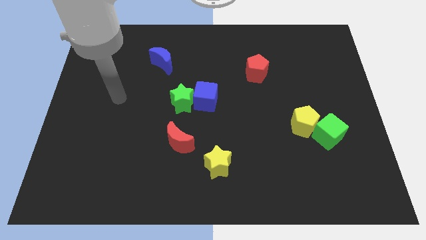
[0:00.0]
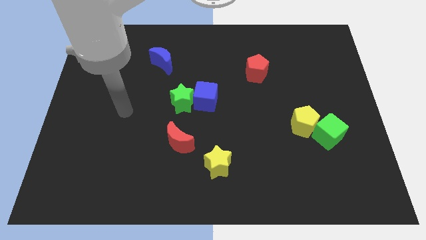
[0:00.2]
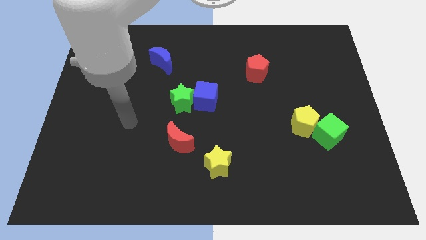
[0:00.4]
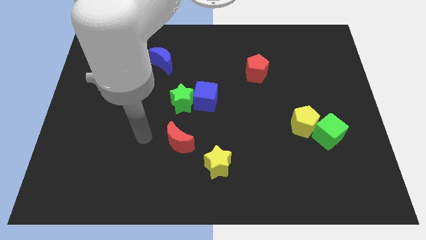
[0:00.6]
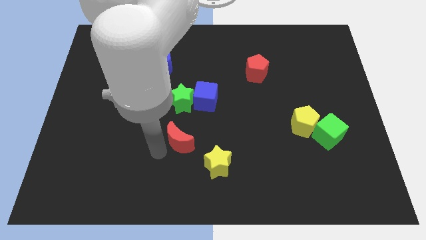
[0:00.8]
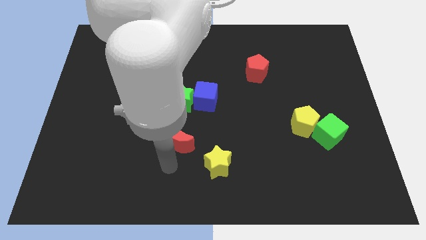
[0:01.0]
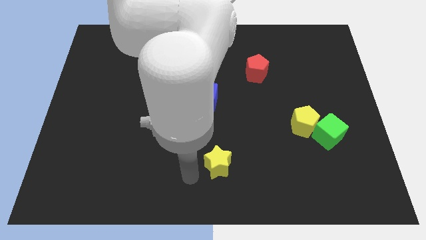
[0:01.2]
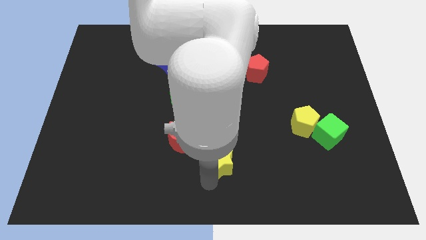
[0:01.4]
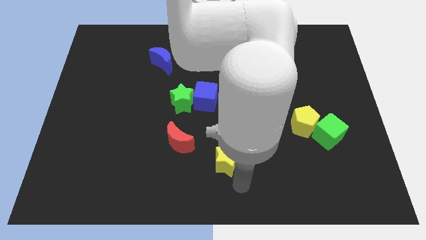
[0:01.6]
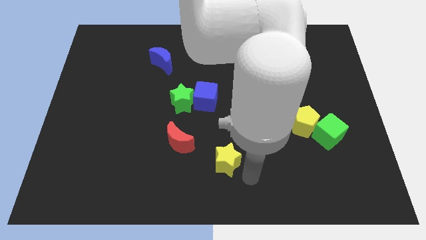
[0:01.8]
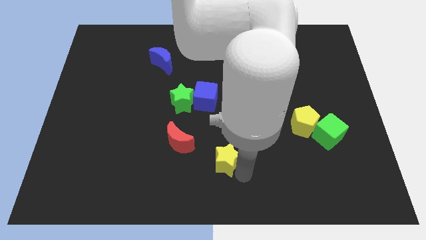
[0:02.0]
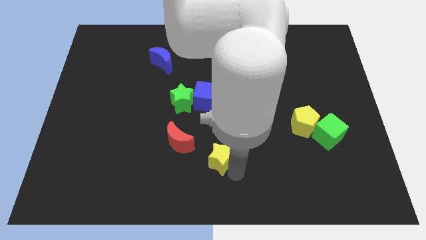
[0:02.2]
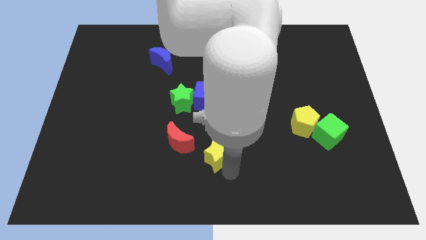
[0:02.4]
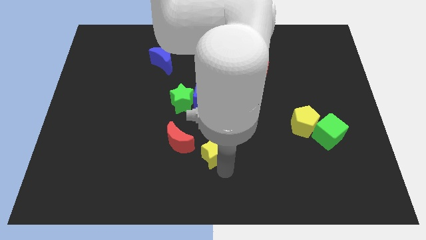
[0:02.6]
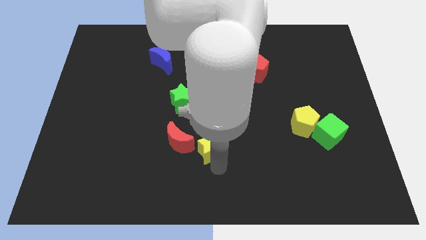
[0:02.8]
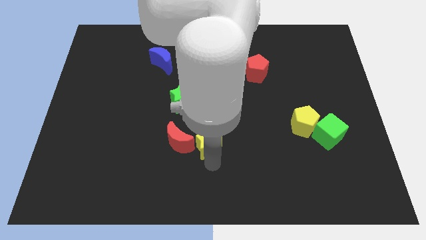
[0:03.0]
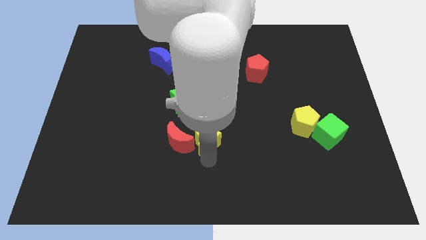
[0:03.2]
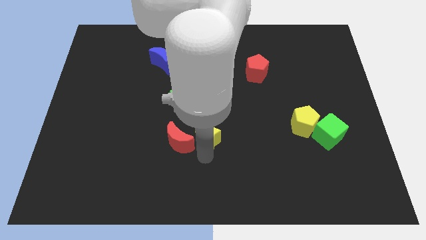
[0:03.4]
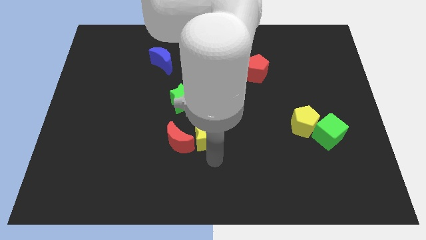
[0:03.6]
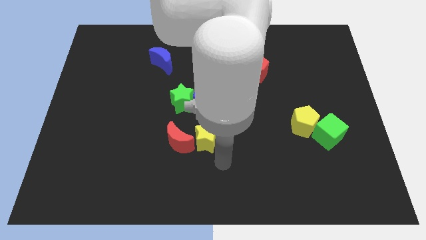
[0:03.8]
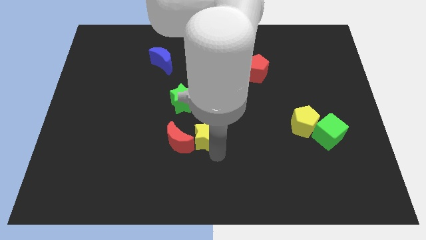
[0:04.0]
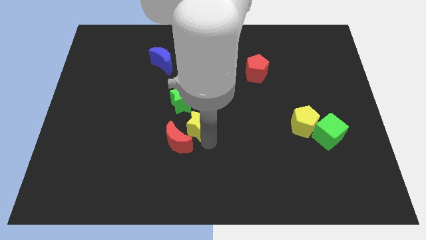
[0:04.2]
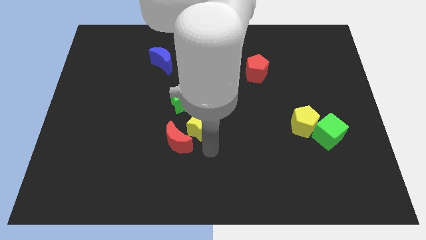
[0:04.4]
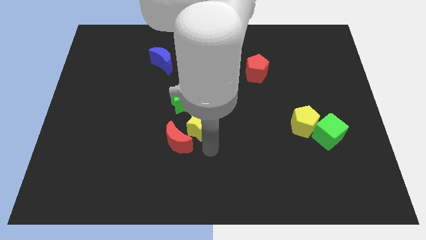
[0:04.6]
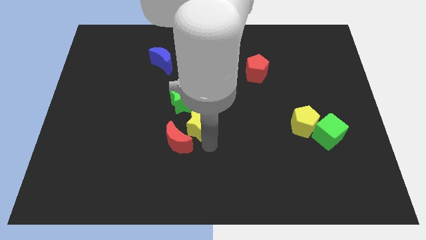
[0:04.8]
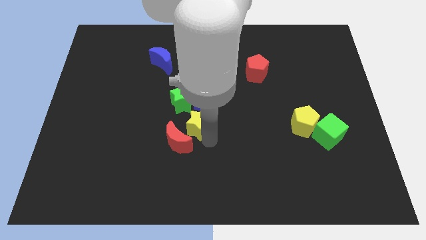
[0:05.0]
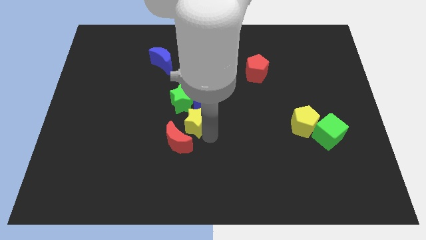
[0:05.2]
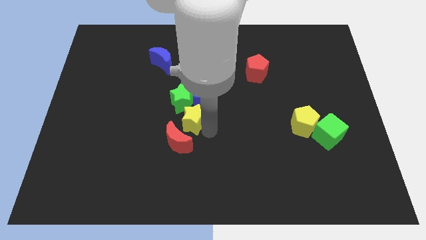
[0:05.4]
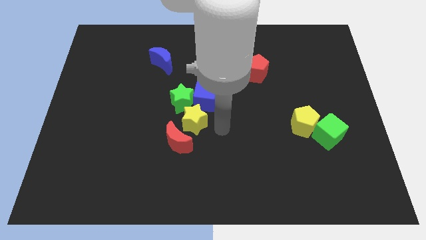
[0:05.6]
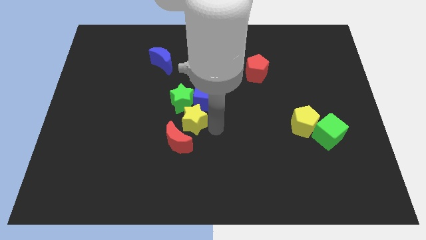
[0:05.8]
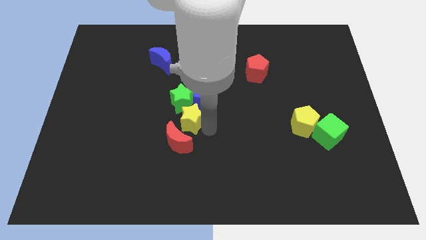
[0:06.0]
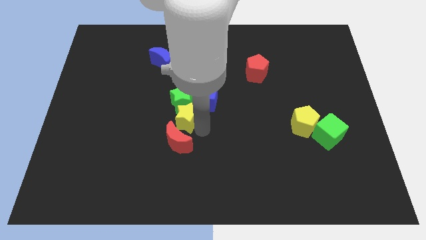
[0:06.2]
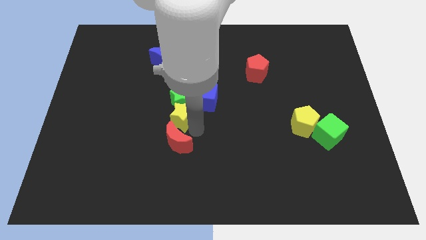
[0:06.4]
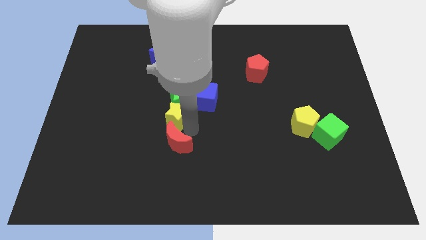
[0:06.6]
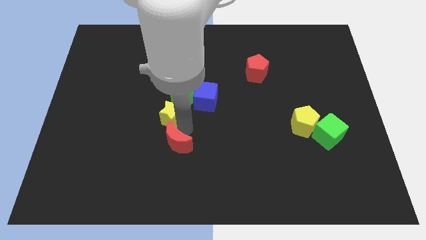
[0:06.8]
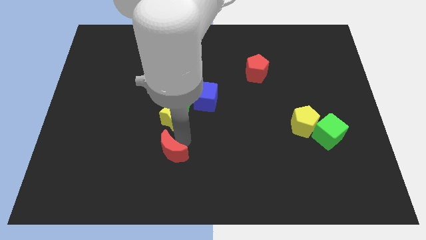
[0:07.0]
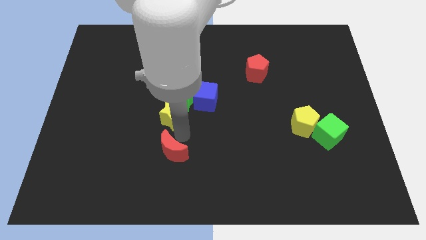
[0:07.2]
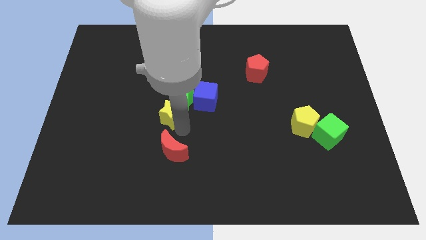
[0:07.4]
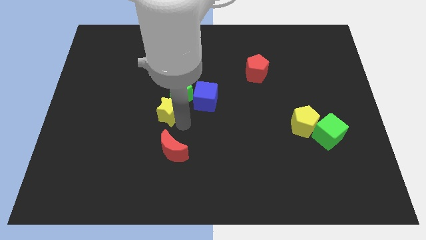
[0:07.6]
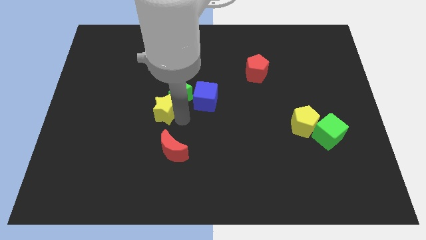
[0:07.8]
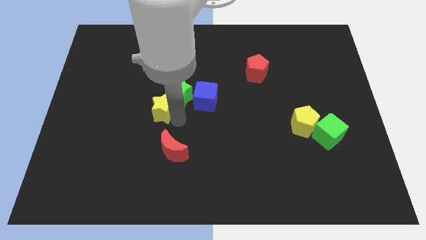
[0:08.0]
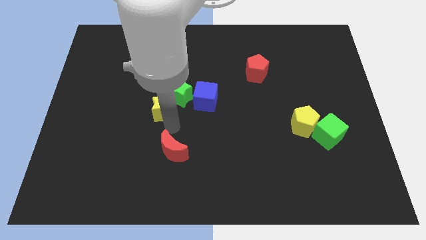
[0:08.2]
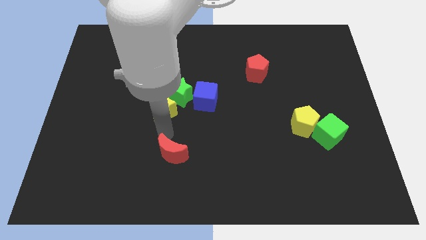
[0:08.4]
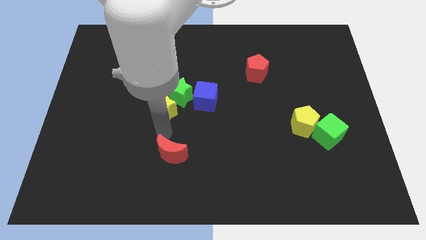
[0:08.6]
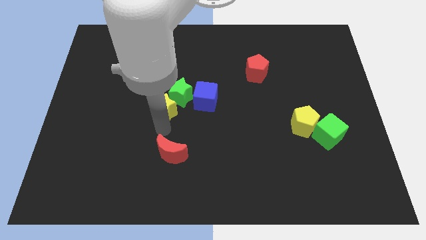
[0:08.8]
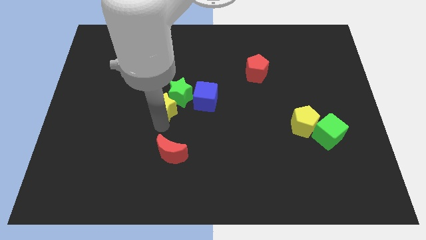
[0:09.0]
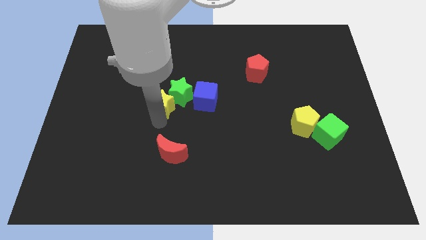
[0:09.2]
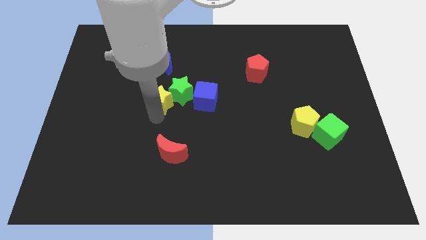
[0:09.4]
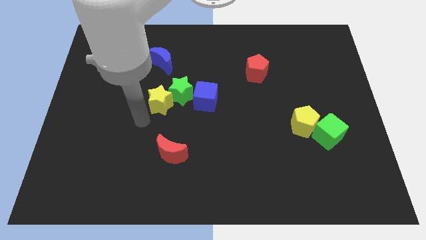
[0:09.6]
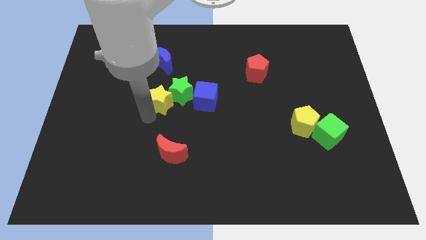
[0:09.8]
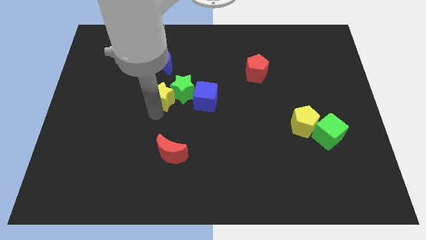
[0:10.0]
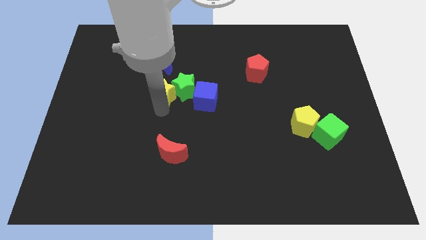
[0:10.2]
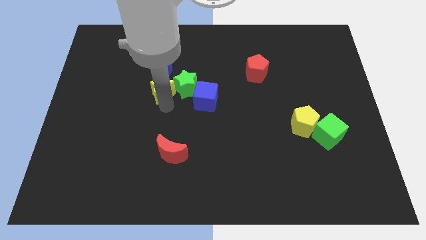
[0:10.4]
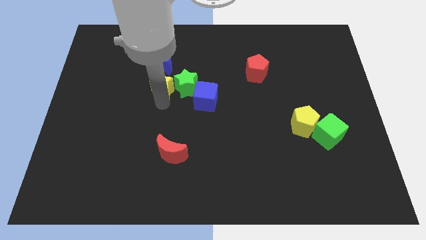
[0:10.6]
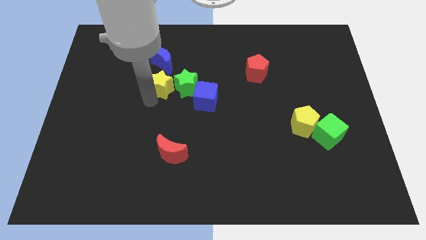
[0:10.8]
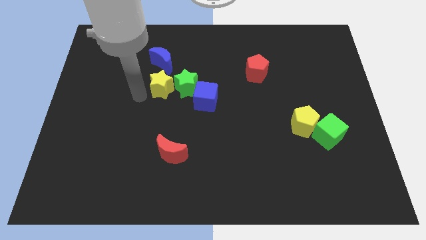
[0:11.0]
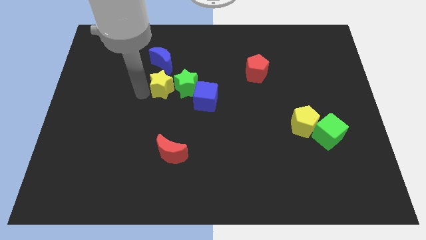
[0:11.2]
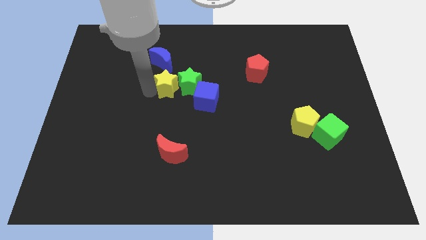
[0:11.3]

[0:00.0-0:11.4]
slide the yellow star to the top left of the blue cube

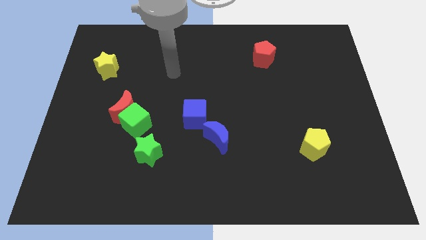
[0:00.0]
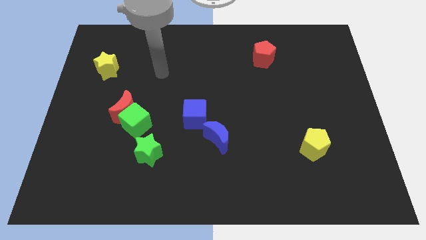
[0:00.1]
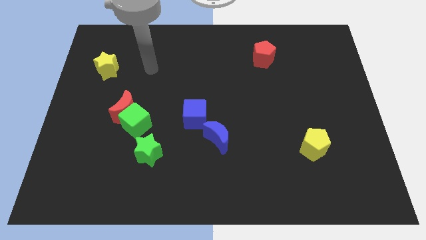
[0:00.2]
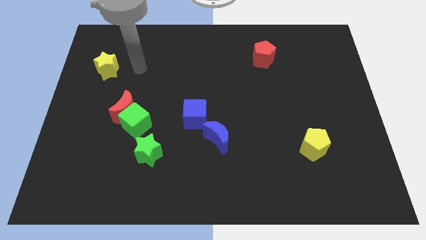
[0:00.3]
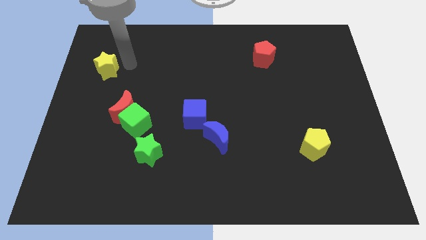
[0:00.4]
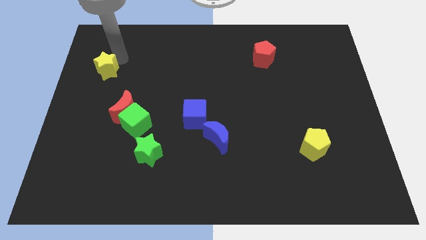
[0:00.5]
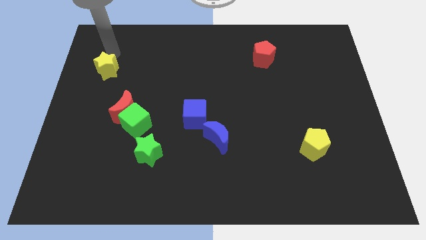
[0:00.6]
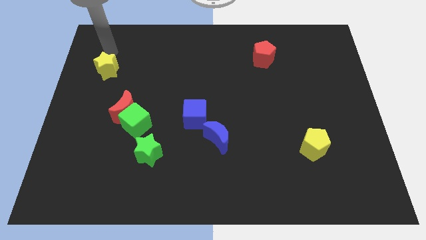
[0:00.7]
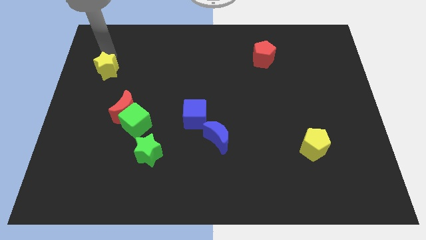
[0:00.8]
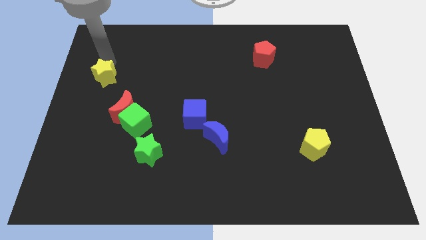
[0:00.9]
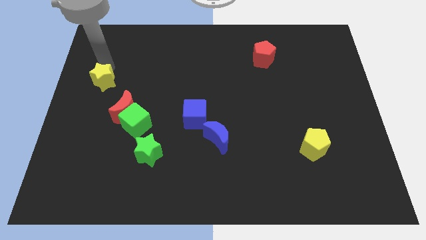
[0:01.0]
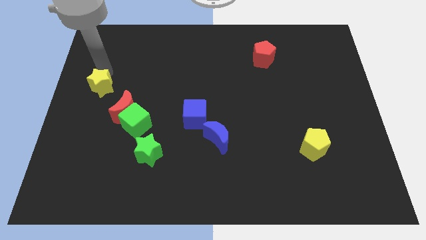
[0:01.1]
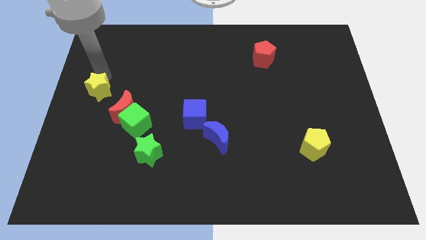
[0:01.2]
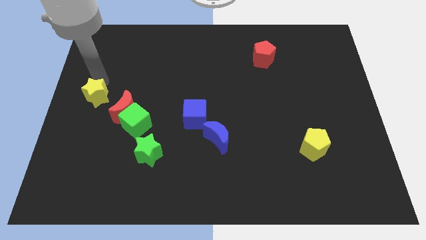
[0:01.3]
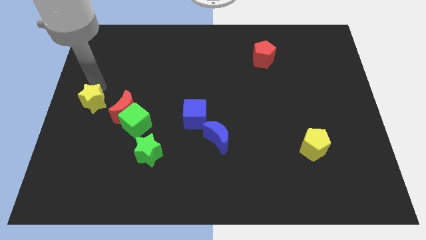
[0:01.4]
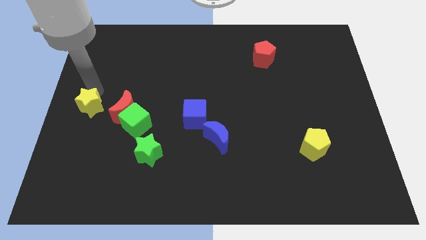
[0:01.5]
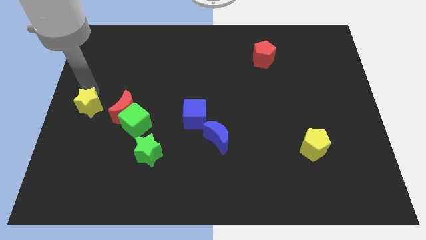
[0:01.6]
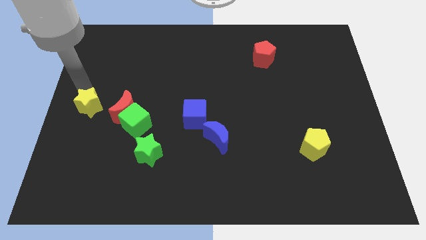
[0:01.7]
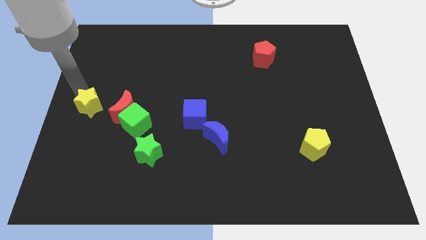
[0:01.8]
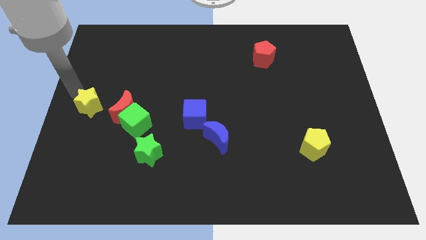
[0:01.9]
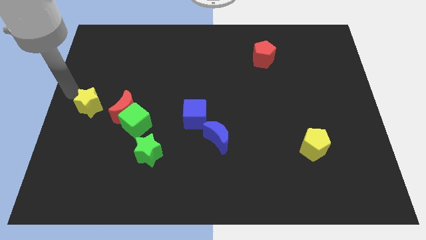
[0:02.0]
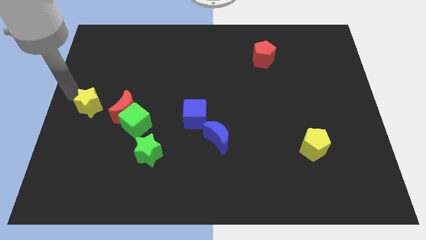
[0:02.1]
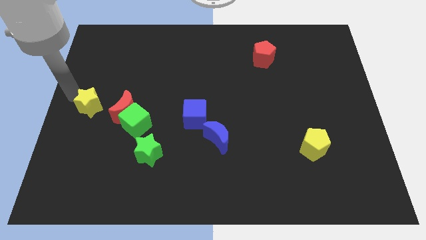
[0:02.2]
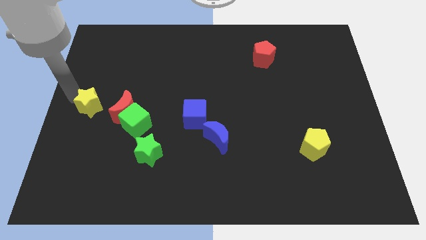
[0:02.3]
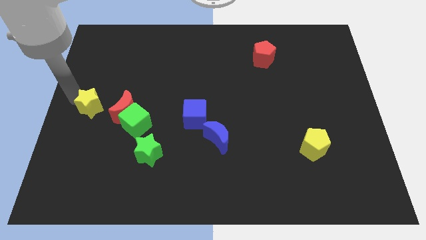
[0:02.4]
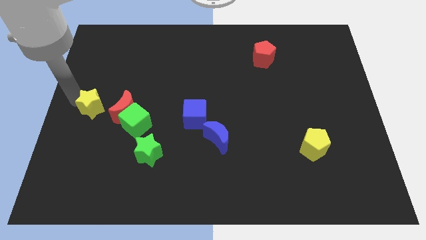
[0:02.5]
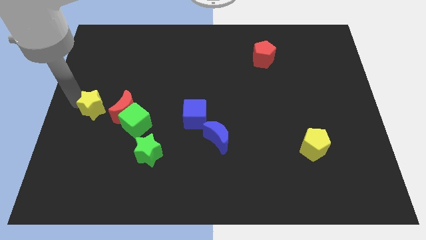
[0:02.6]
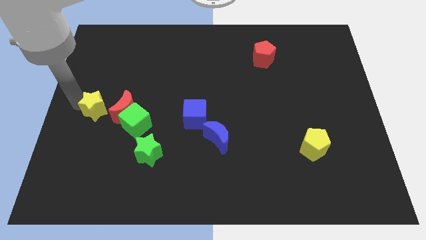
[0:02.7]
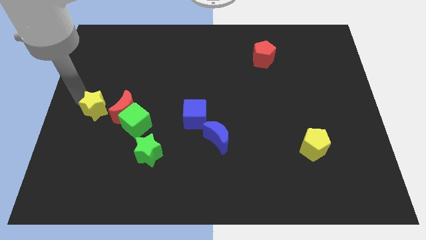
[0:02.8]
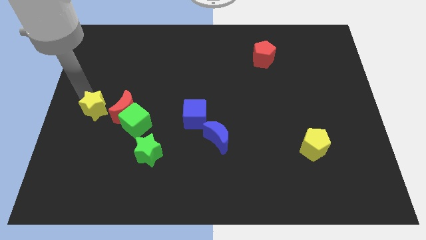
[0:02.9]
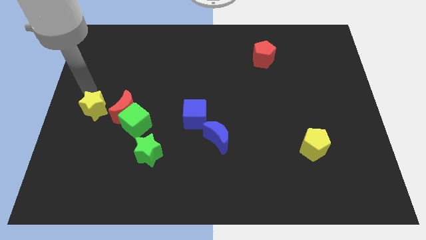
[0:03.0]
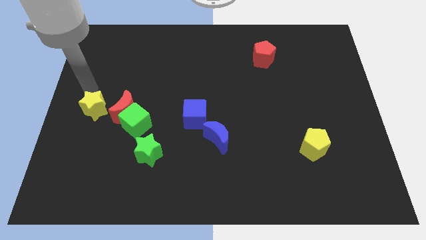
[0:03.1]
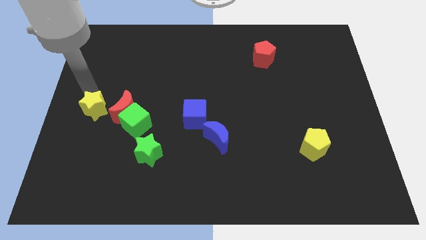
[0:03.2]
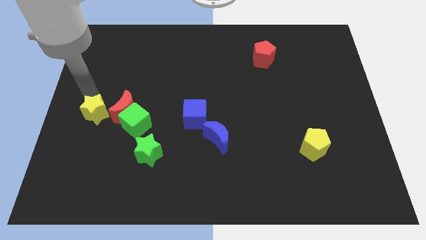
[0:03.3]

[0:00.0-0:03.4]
move the yellow star to the bottom left of the red moon
